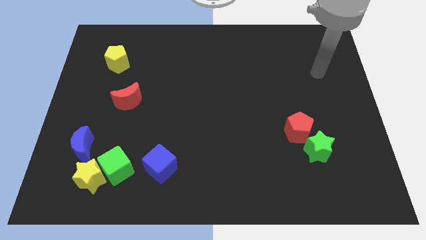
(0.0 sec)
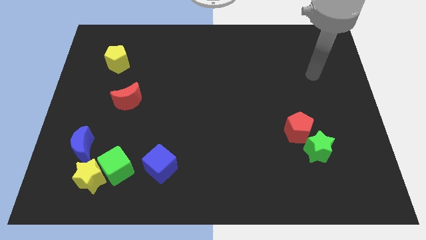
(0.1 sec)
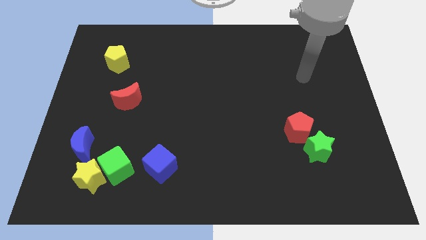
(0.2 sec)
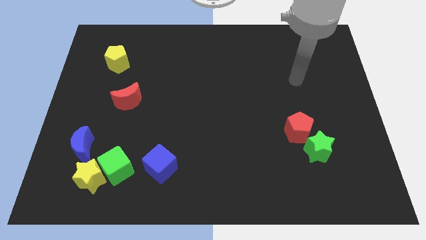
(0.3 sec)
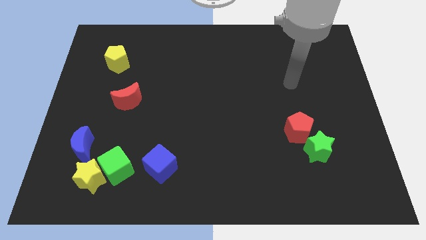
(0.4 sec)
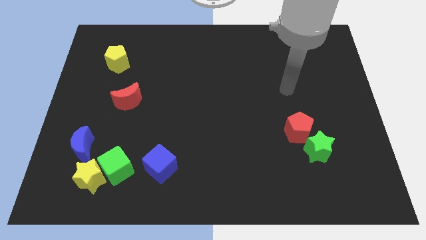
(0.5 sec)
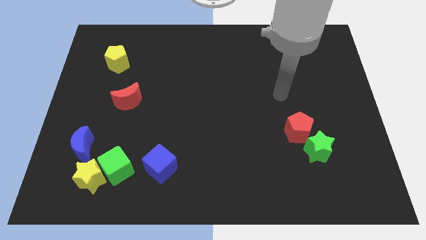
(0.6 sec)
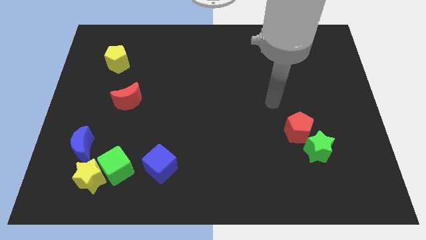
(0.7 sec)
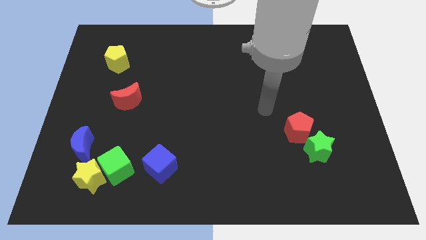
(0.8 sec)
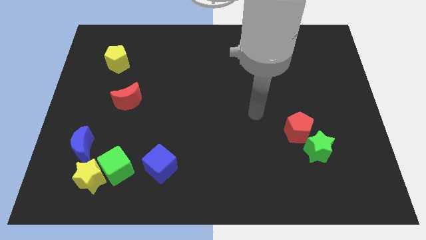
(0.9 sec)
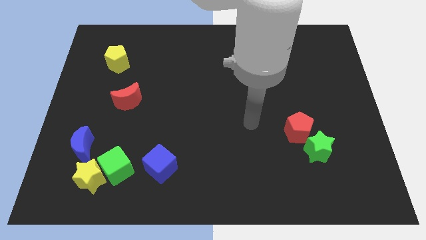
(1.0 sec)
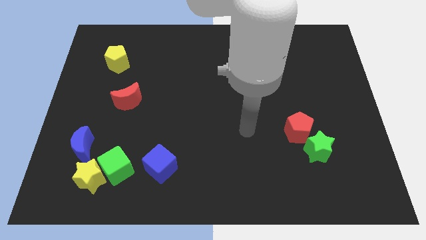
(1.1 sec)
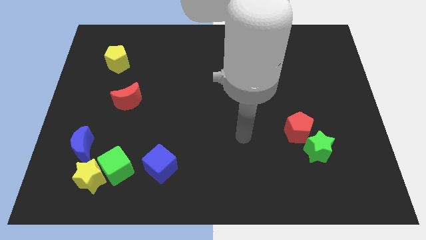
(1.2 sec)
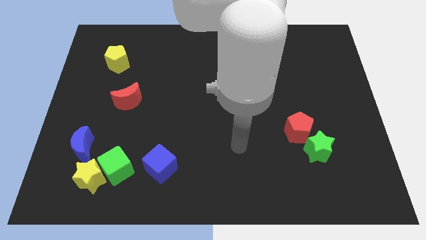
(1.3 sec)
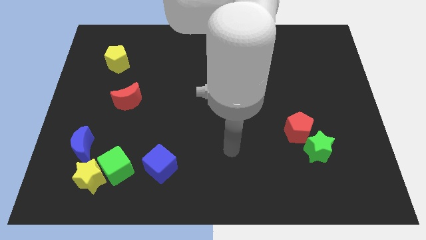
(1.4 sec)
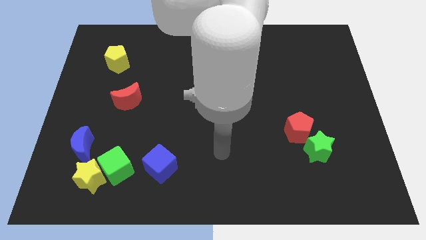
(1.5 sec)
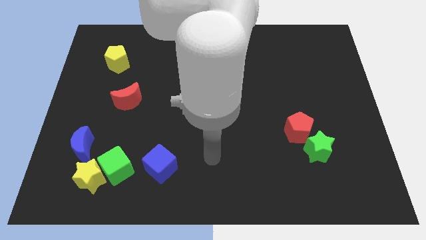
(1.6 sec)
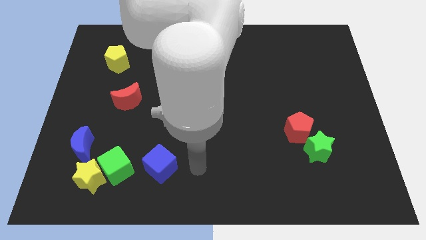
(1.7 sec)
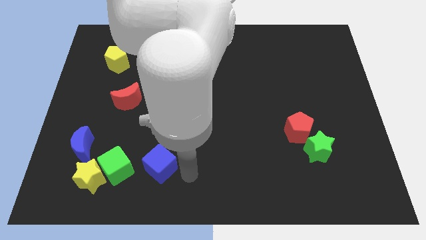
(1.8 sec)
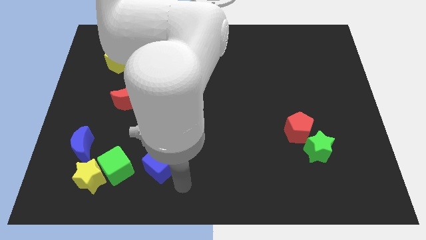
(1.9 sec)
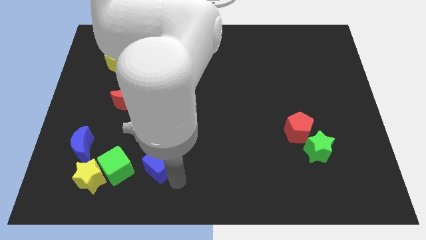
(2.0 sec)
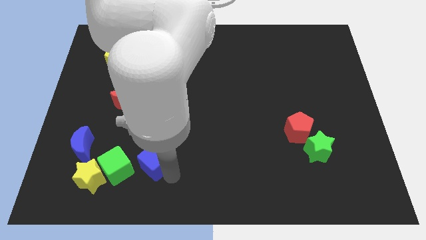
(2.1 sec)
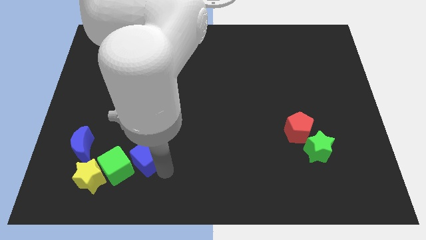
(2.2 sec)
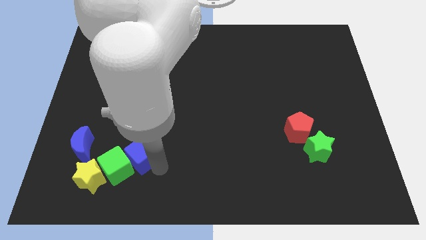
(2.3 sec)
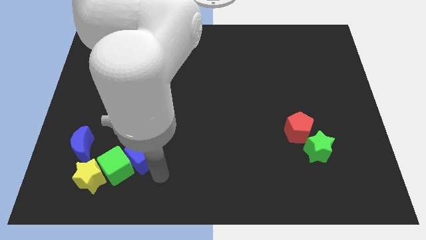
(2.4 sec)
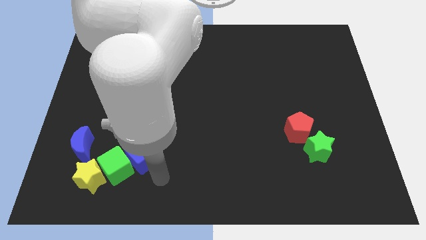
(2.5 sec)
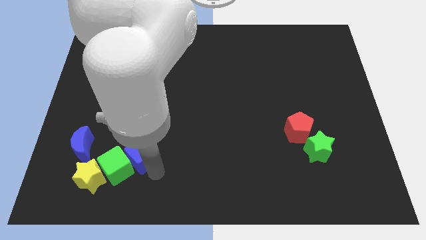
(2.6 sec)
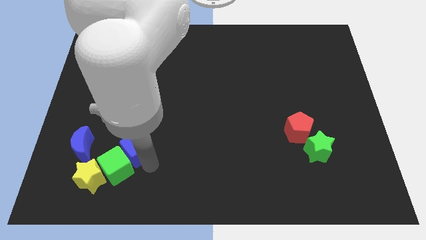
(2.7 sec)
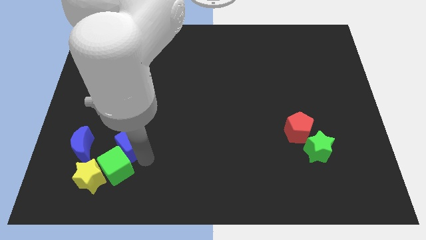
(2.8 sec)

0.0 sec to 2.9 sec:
move the blue cube diagonally upwards and left a bit

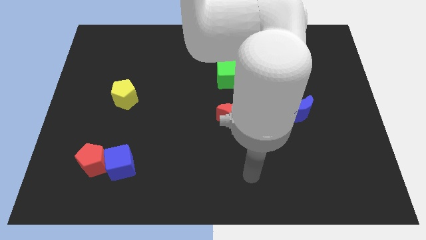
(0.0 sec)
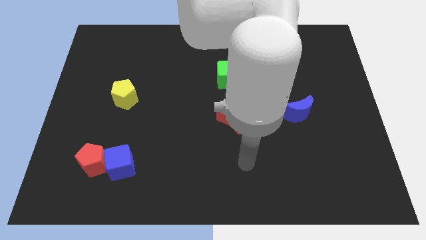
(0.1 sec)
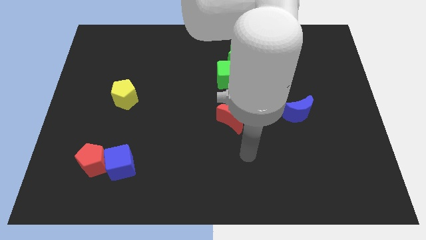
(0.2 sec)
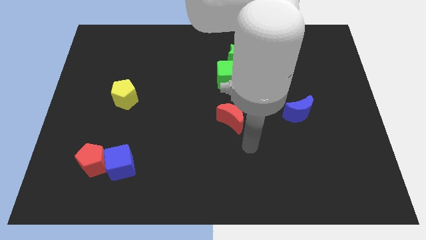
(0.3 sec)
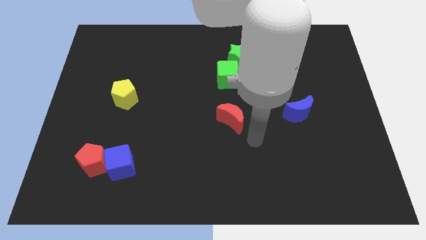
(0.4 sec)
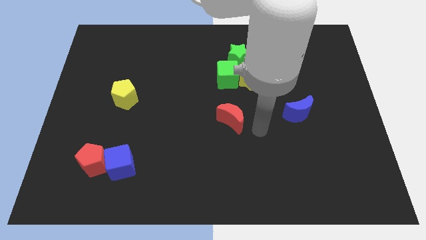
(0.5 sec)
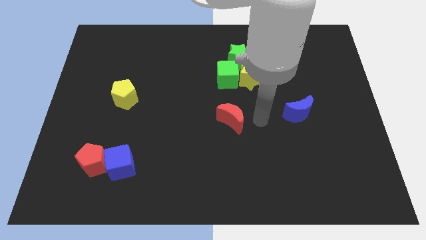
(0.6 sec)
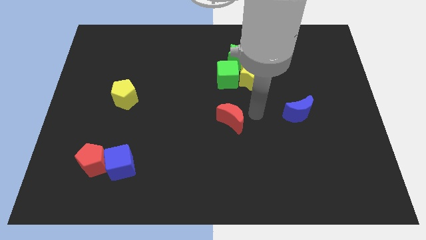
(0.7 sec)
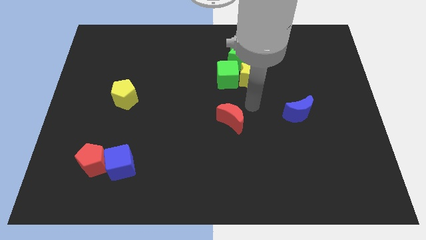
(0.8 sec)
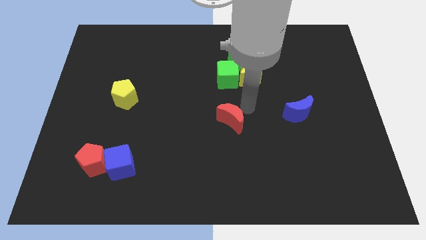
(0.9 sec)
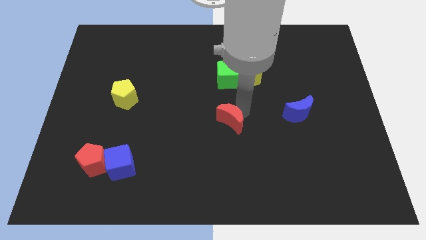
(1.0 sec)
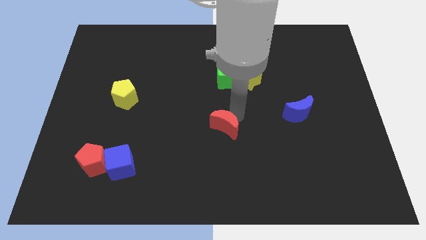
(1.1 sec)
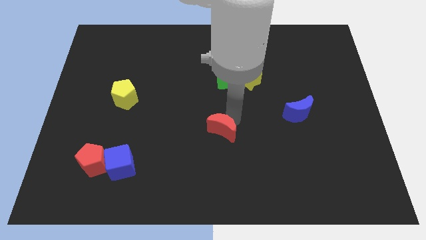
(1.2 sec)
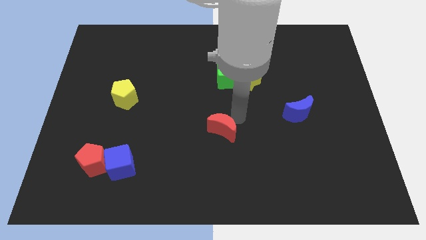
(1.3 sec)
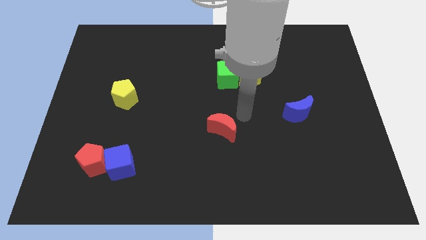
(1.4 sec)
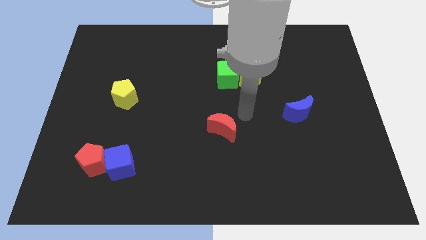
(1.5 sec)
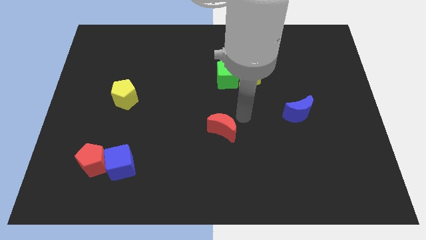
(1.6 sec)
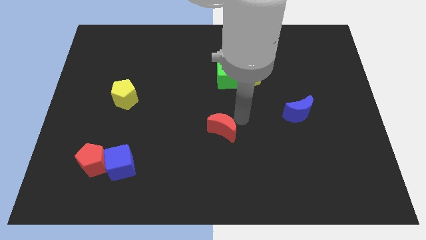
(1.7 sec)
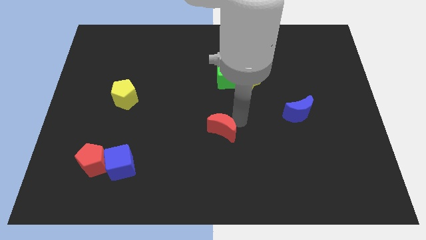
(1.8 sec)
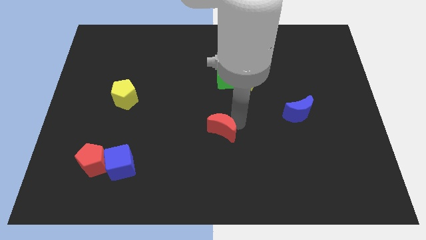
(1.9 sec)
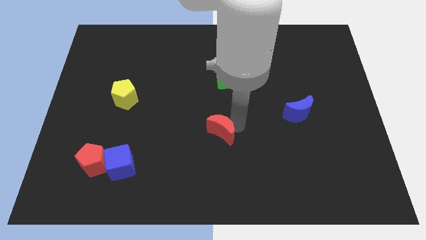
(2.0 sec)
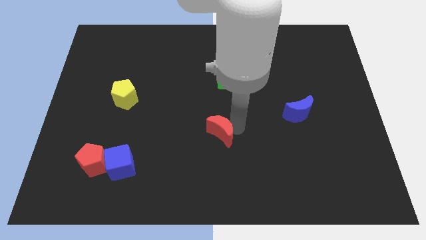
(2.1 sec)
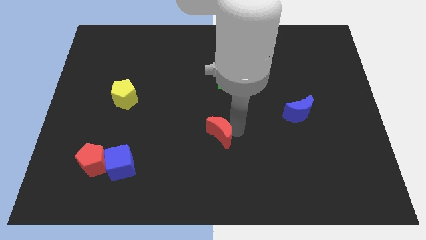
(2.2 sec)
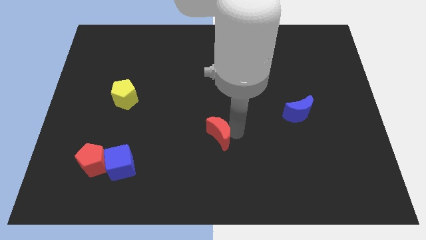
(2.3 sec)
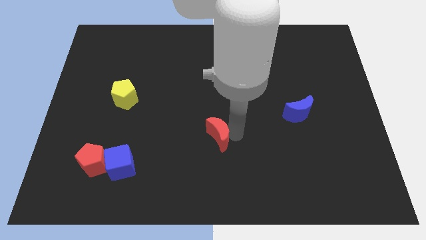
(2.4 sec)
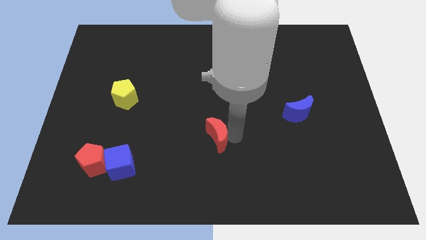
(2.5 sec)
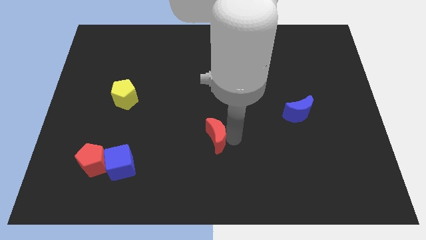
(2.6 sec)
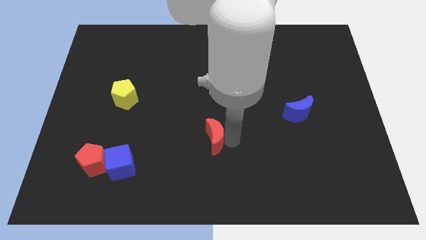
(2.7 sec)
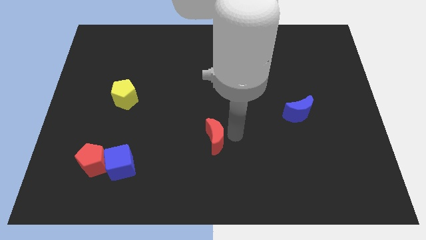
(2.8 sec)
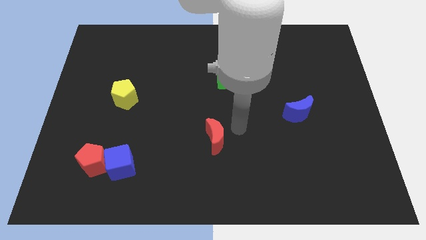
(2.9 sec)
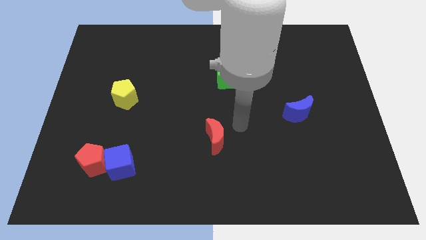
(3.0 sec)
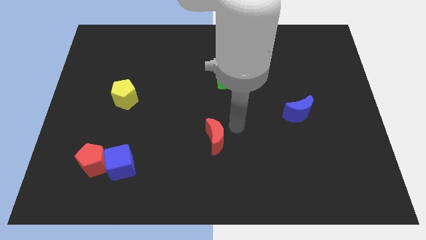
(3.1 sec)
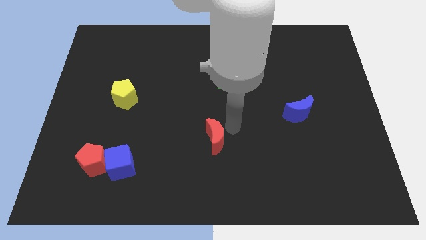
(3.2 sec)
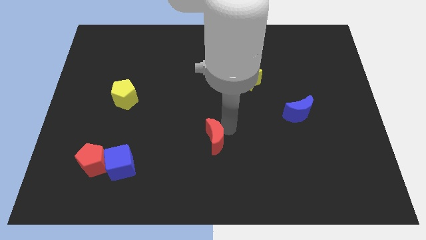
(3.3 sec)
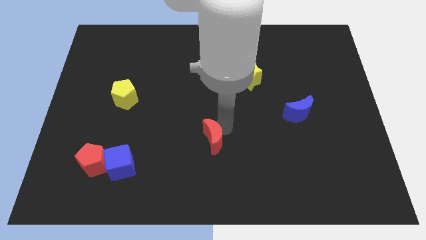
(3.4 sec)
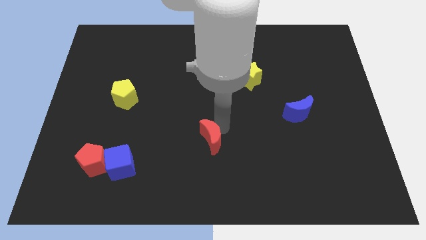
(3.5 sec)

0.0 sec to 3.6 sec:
slightly slide the red moon down and then to the left

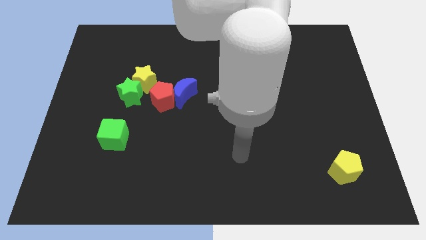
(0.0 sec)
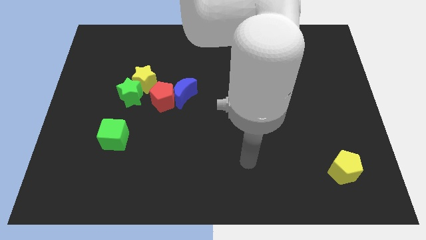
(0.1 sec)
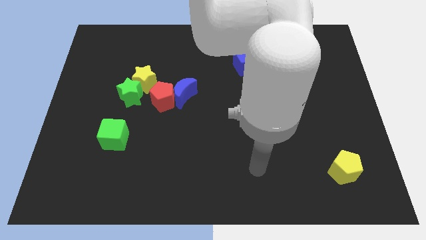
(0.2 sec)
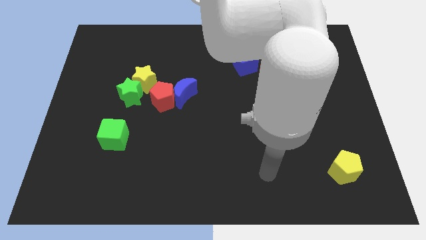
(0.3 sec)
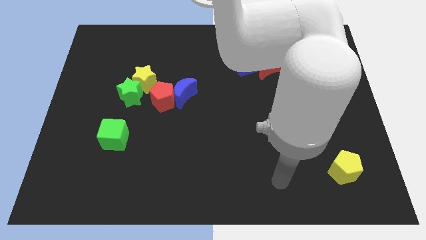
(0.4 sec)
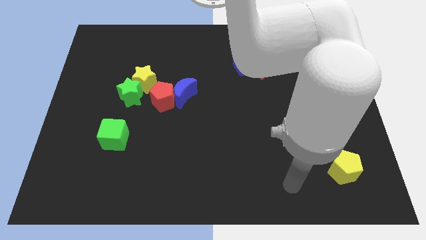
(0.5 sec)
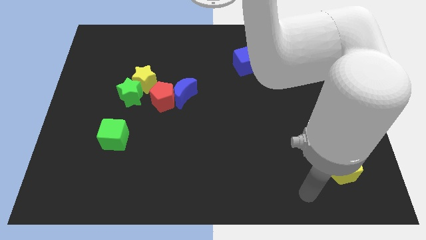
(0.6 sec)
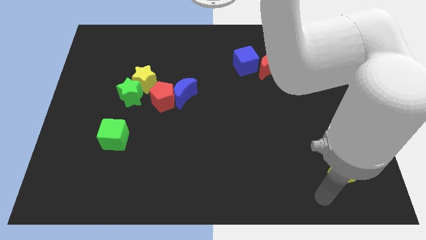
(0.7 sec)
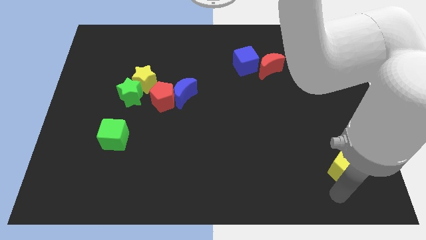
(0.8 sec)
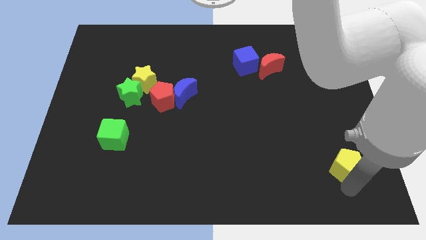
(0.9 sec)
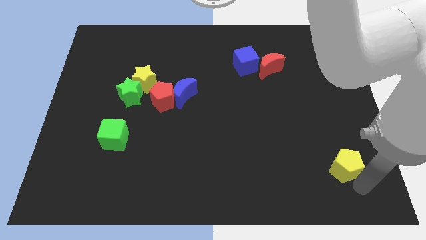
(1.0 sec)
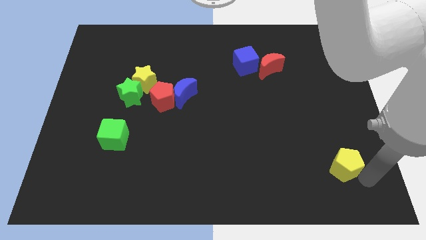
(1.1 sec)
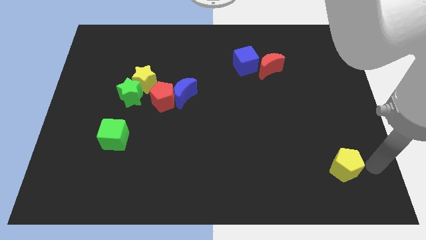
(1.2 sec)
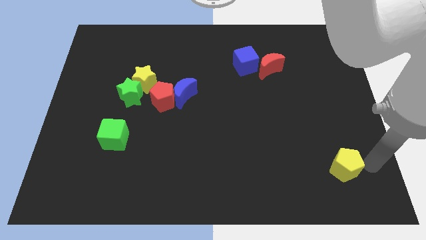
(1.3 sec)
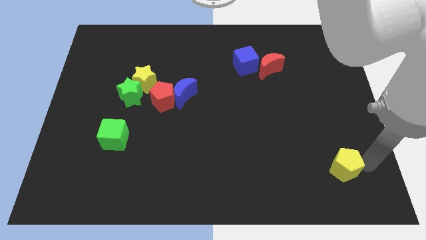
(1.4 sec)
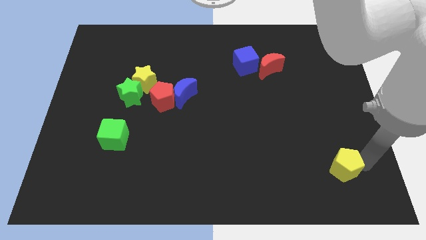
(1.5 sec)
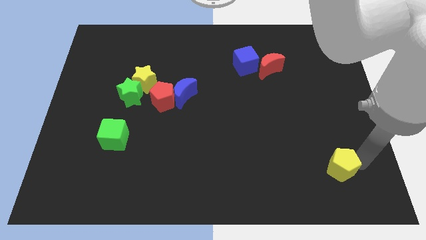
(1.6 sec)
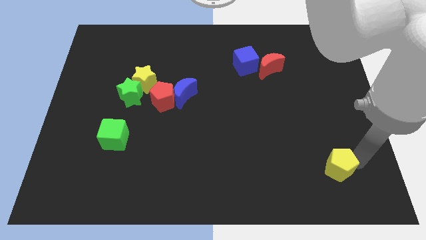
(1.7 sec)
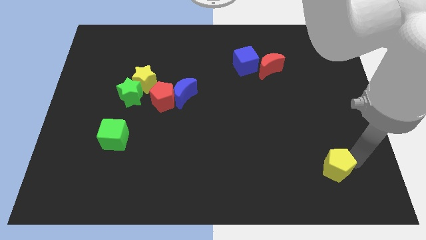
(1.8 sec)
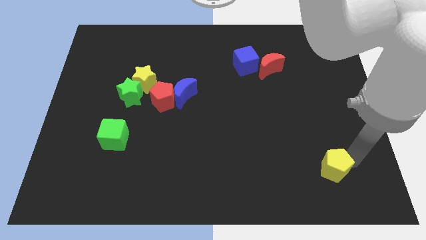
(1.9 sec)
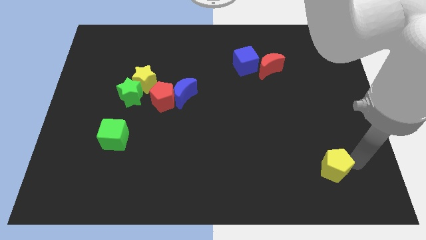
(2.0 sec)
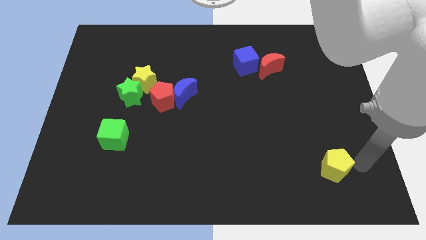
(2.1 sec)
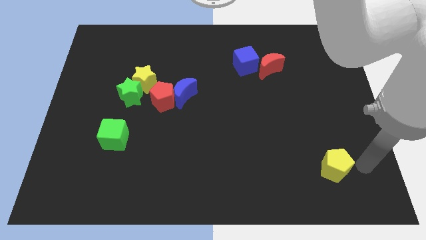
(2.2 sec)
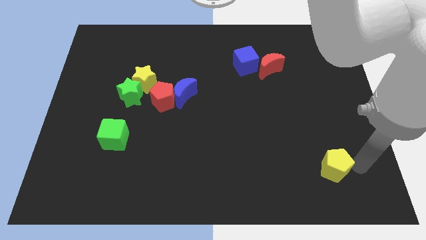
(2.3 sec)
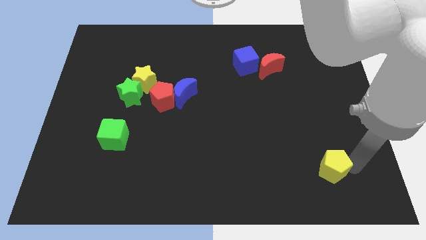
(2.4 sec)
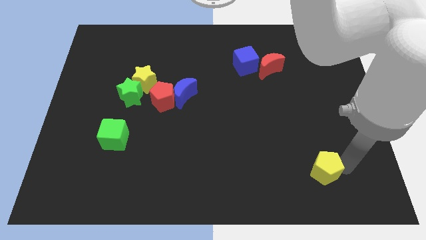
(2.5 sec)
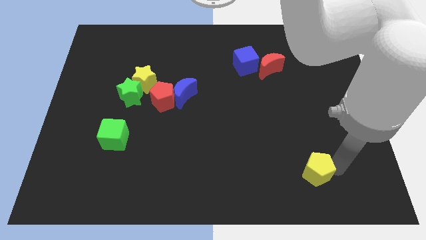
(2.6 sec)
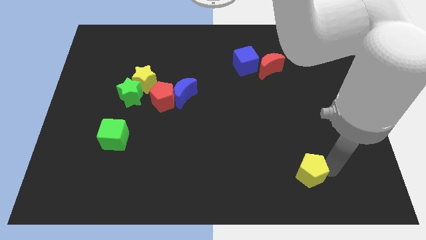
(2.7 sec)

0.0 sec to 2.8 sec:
slightly push the yellow pentagon left
